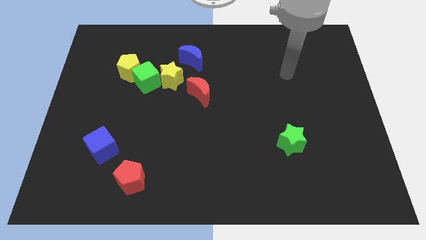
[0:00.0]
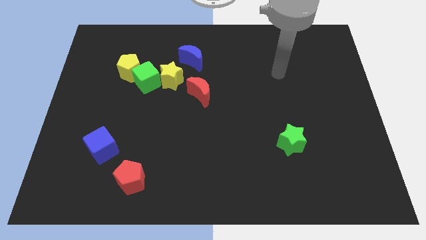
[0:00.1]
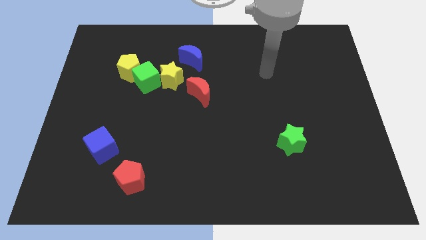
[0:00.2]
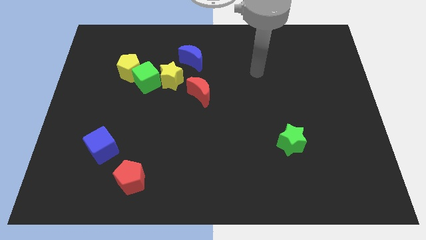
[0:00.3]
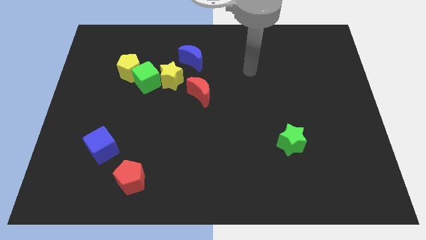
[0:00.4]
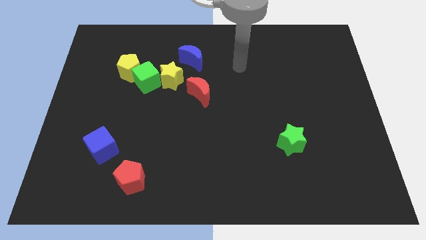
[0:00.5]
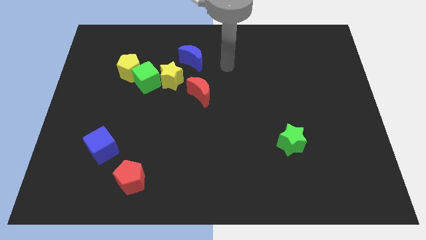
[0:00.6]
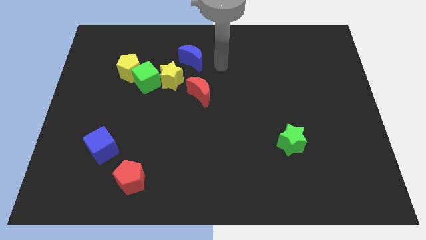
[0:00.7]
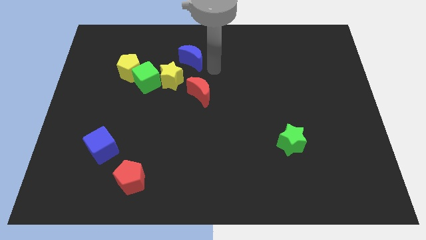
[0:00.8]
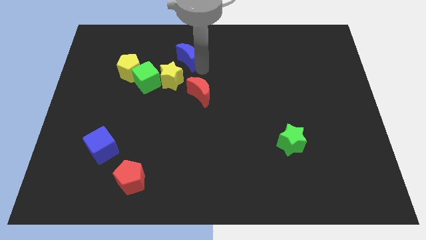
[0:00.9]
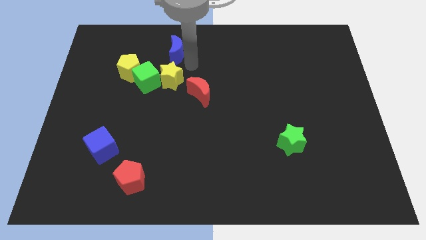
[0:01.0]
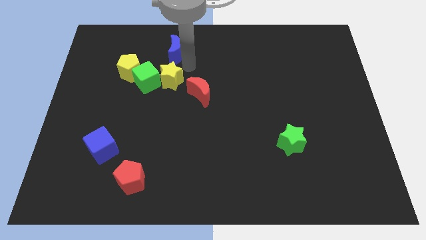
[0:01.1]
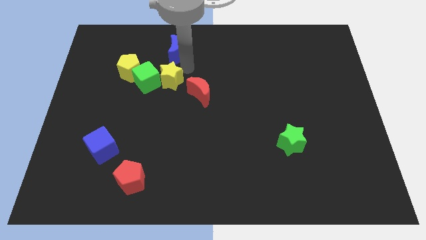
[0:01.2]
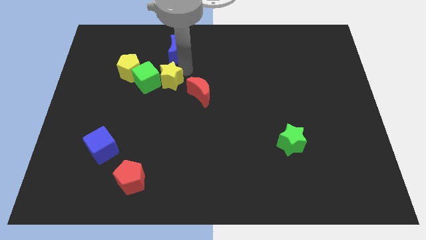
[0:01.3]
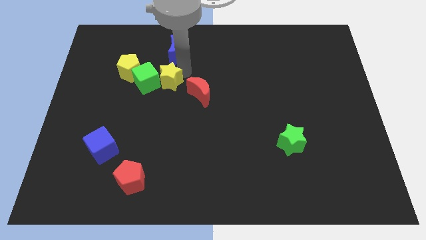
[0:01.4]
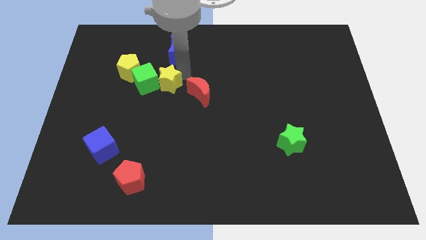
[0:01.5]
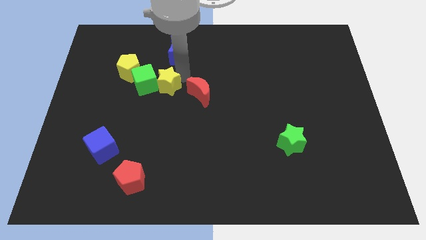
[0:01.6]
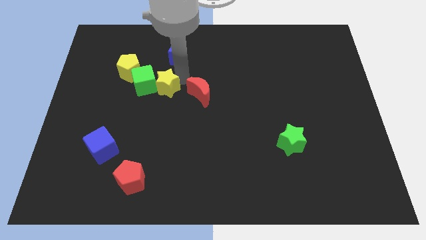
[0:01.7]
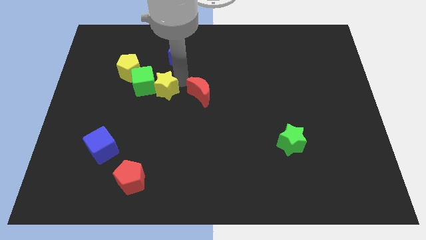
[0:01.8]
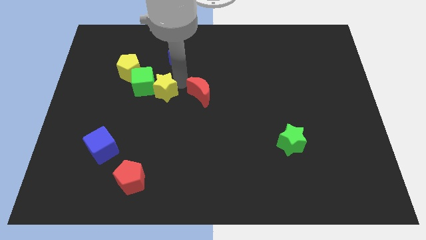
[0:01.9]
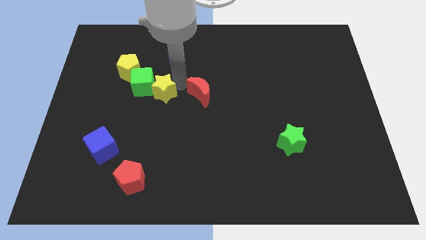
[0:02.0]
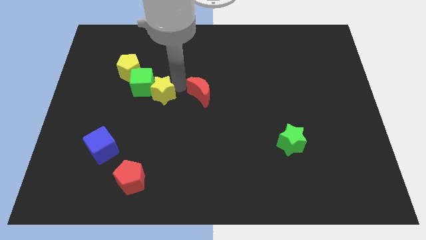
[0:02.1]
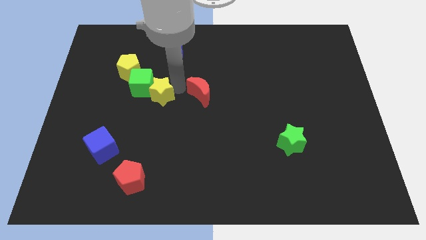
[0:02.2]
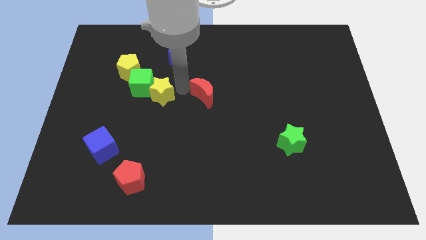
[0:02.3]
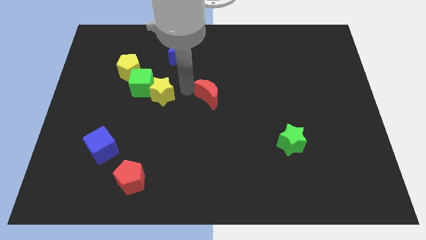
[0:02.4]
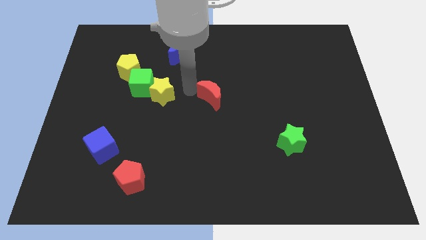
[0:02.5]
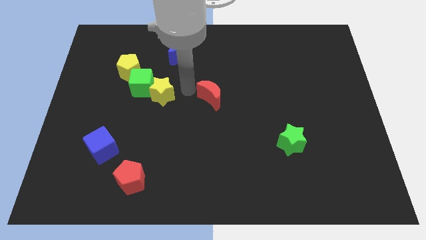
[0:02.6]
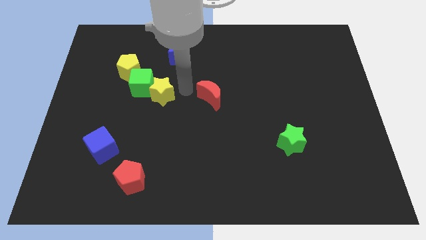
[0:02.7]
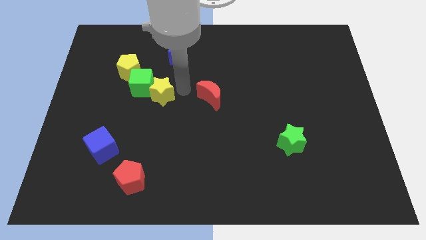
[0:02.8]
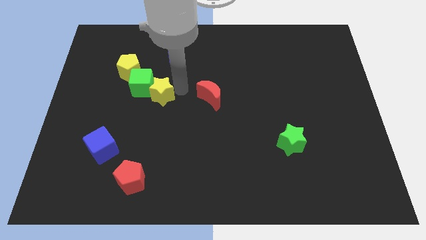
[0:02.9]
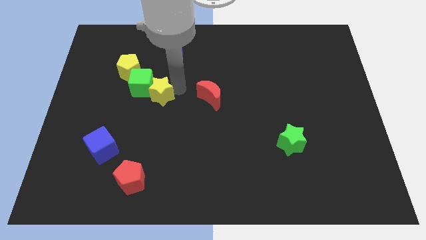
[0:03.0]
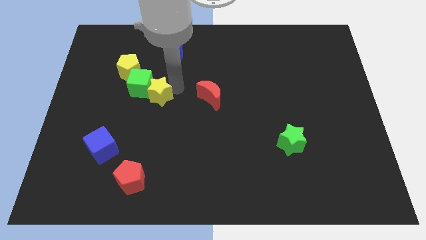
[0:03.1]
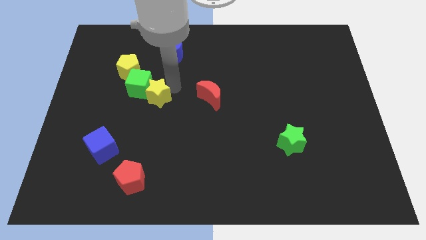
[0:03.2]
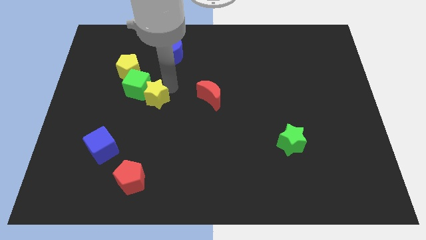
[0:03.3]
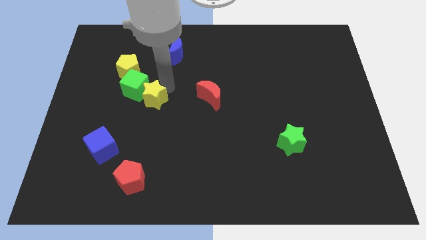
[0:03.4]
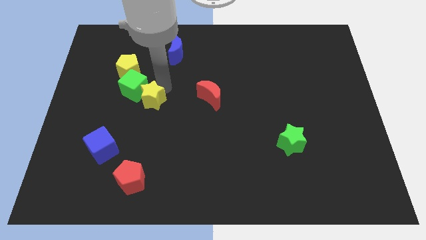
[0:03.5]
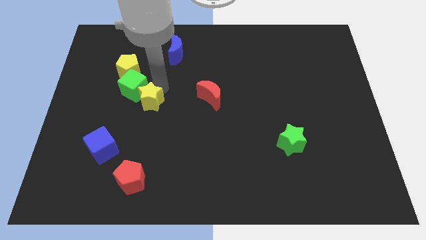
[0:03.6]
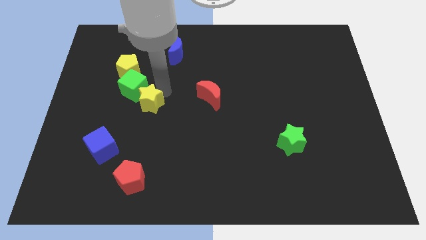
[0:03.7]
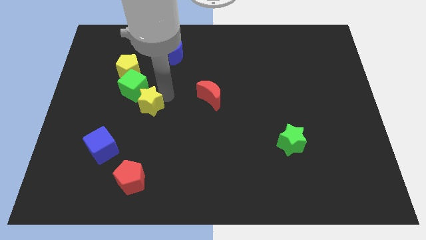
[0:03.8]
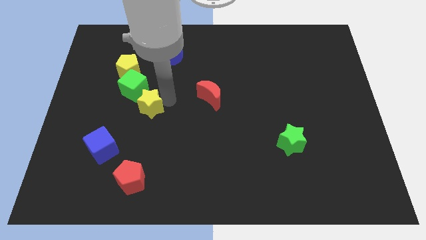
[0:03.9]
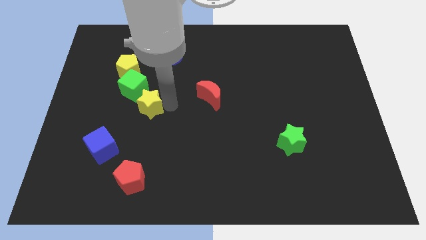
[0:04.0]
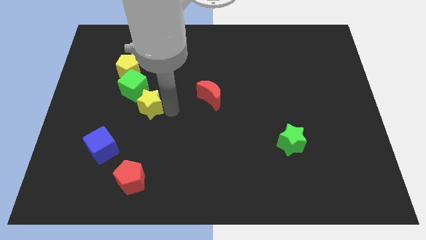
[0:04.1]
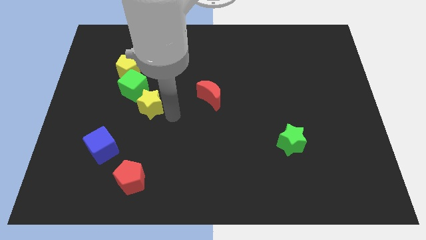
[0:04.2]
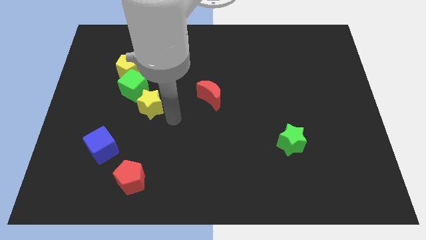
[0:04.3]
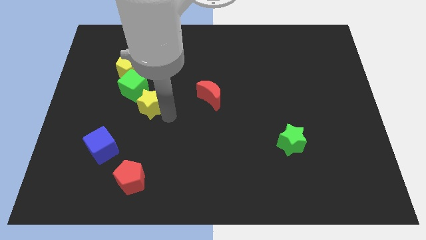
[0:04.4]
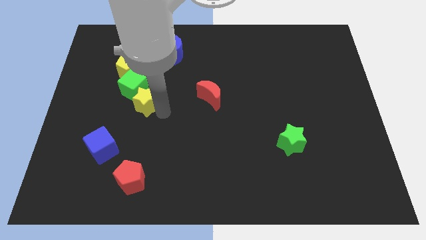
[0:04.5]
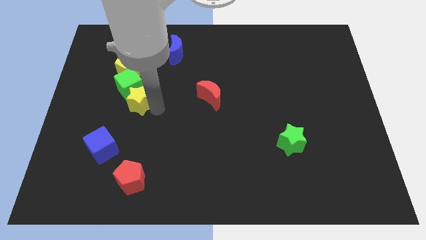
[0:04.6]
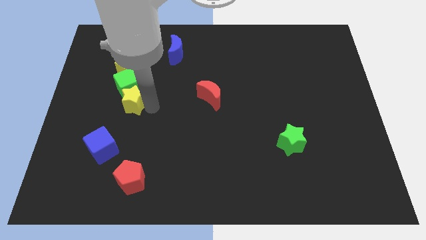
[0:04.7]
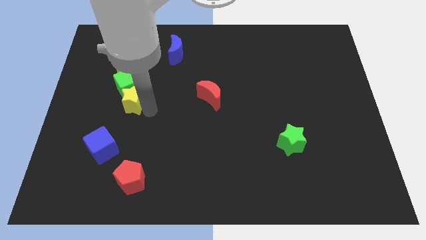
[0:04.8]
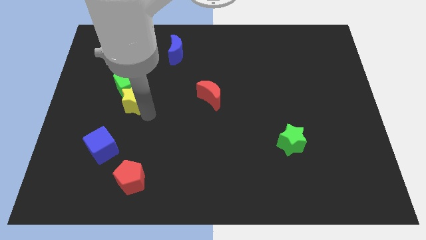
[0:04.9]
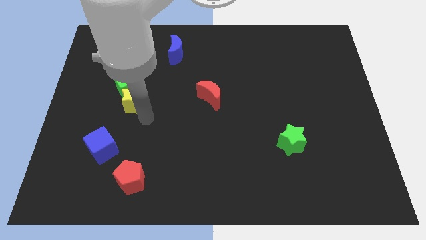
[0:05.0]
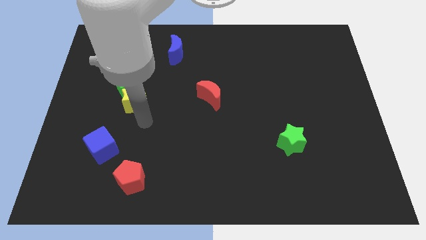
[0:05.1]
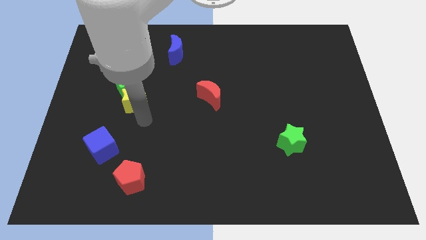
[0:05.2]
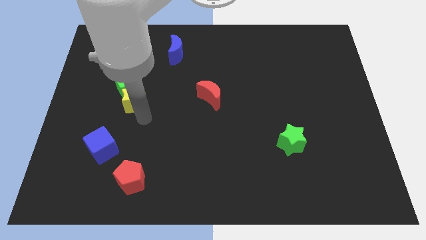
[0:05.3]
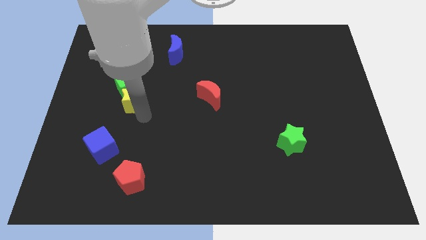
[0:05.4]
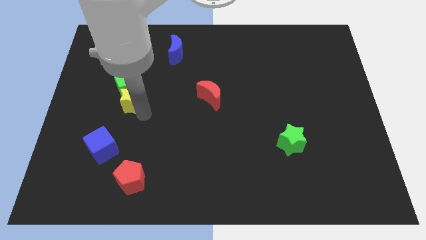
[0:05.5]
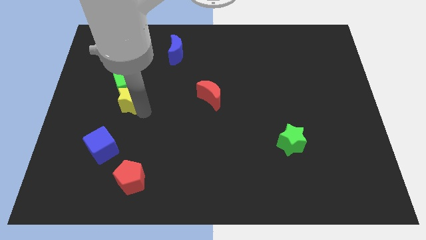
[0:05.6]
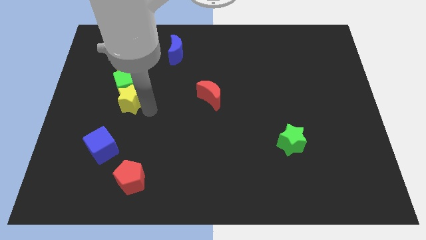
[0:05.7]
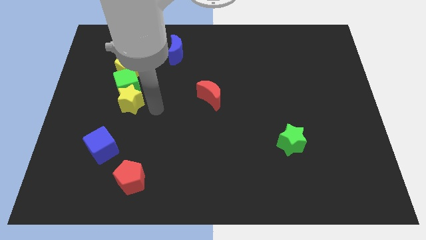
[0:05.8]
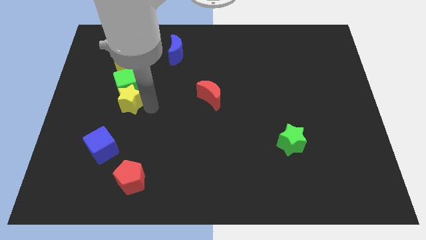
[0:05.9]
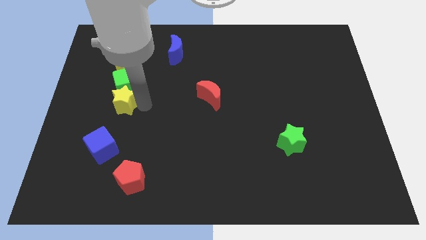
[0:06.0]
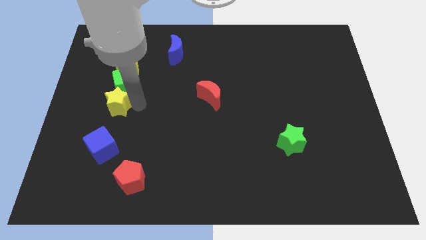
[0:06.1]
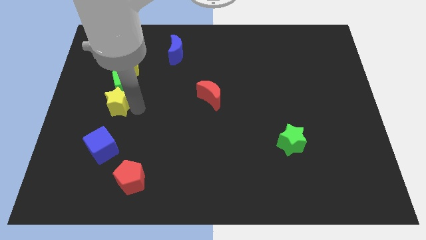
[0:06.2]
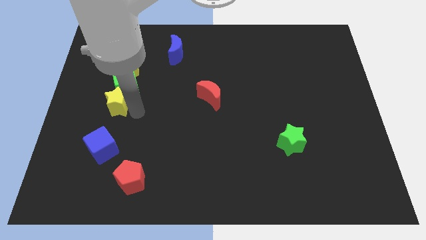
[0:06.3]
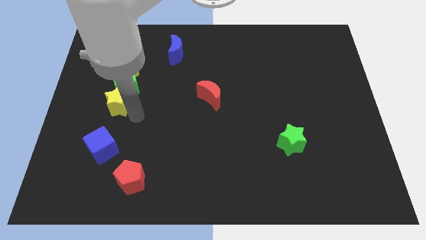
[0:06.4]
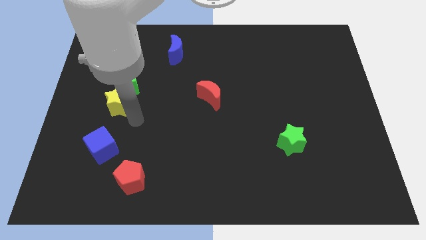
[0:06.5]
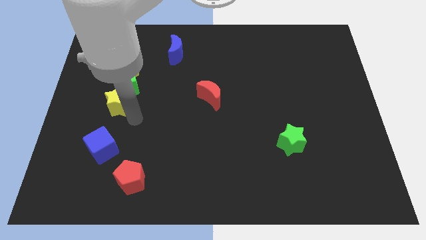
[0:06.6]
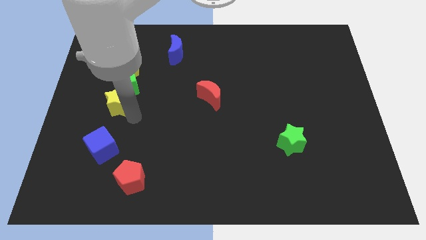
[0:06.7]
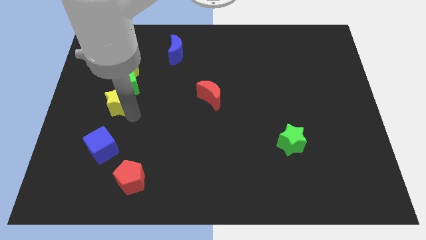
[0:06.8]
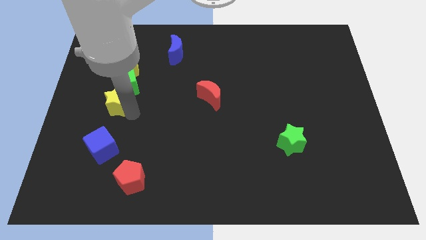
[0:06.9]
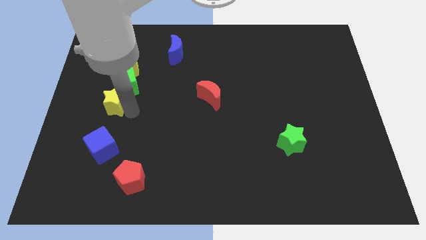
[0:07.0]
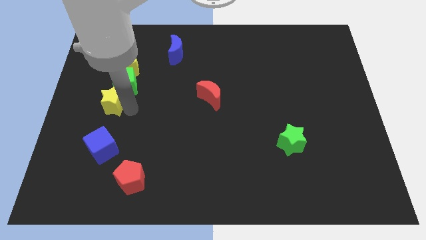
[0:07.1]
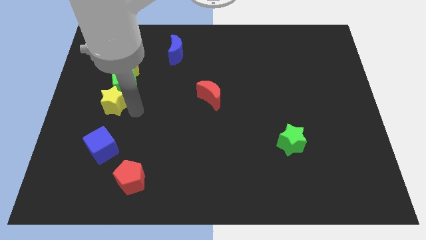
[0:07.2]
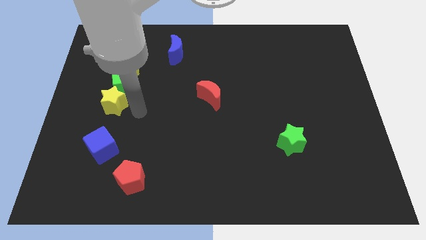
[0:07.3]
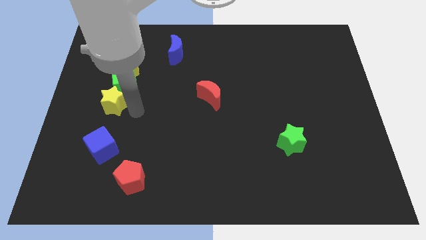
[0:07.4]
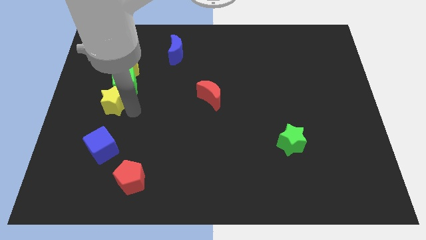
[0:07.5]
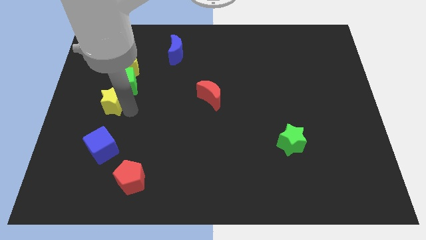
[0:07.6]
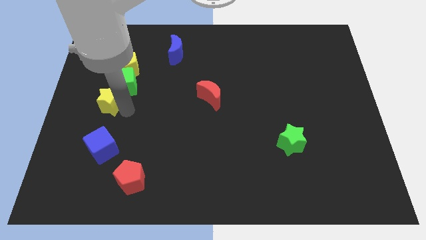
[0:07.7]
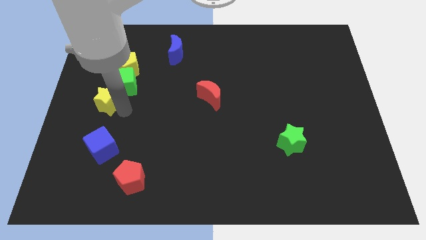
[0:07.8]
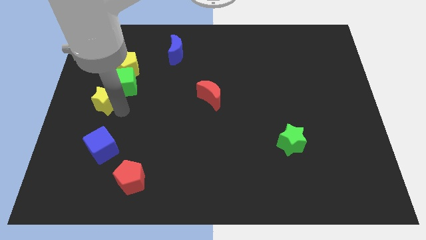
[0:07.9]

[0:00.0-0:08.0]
move the yellow star to the center left
